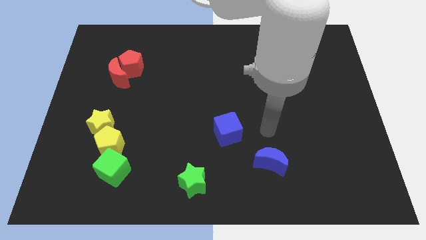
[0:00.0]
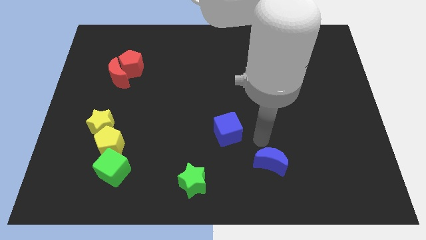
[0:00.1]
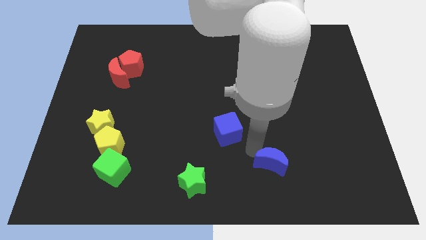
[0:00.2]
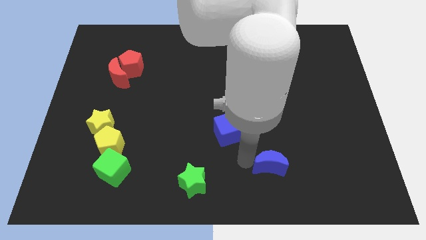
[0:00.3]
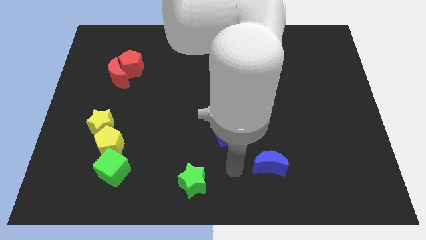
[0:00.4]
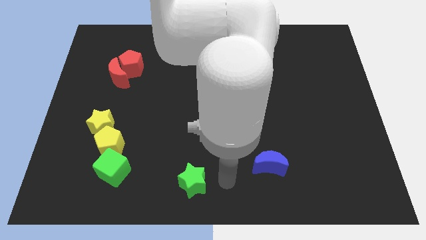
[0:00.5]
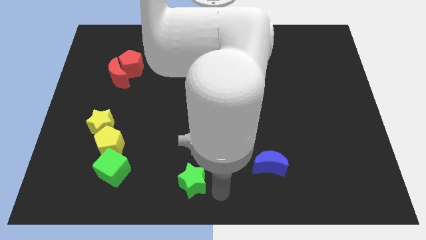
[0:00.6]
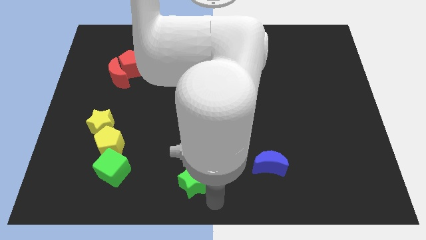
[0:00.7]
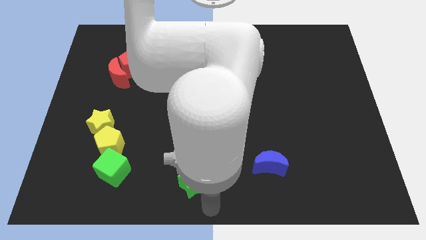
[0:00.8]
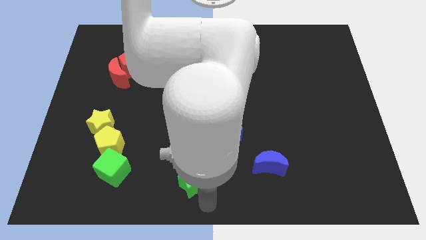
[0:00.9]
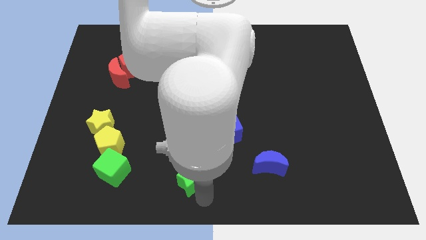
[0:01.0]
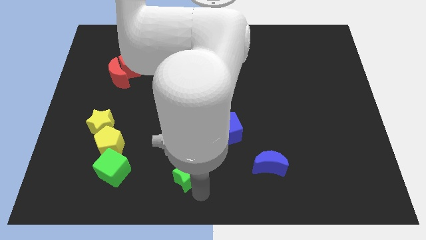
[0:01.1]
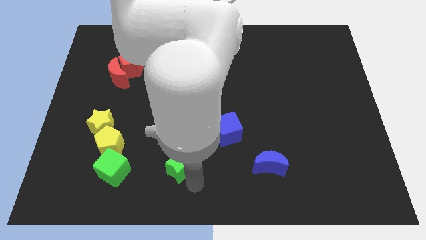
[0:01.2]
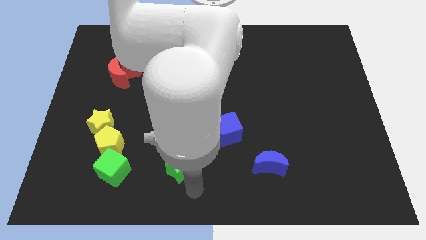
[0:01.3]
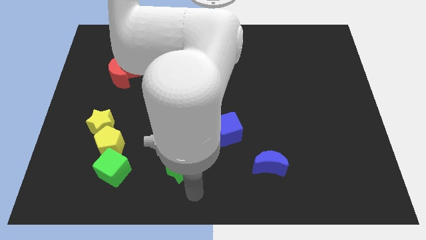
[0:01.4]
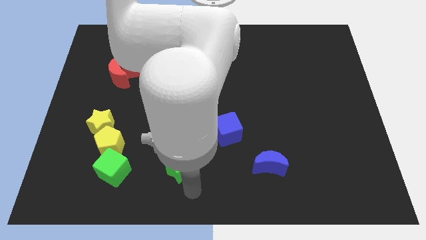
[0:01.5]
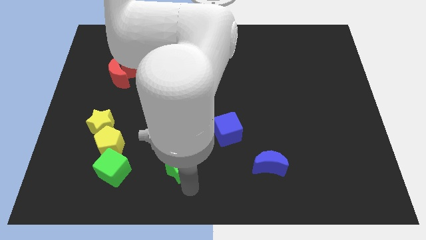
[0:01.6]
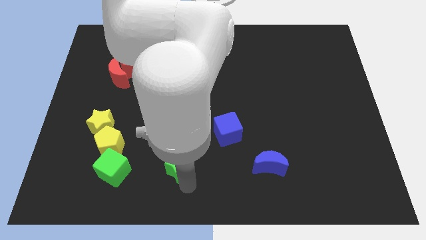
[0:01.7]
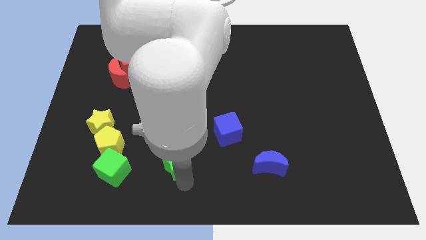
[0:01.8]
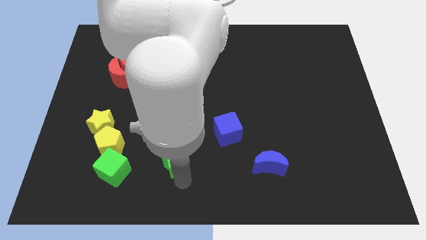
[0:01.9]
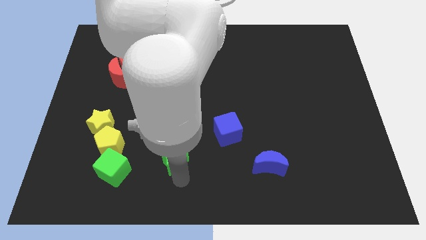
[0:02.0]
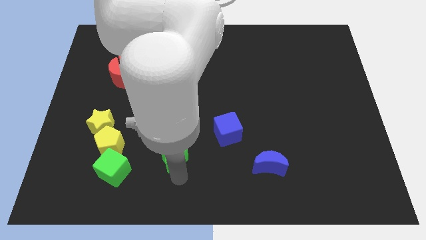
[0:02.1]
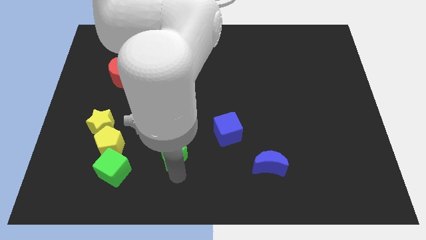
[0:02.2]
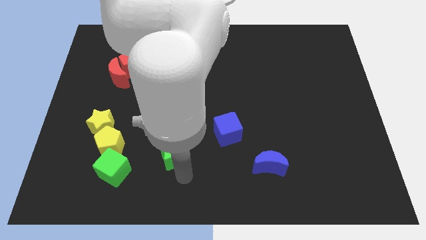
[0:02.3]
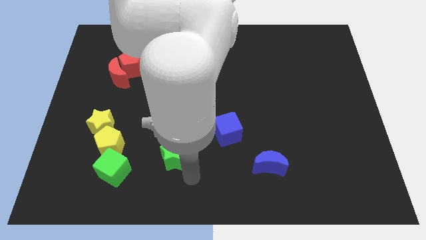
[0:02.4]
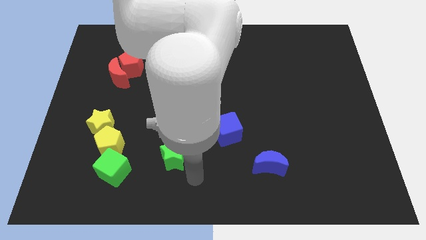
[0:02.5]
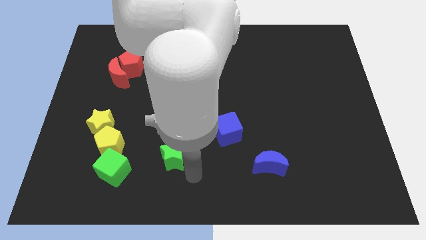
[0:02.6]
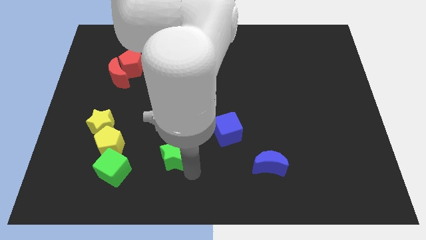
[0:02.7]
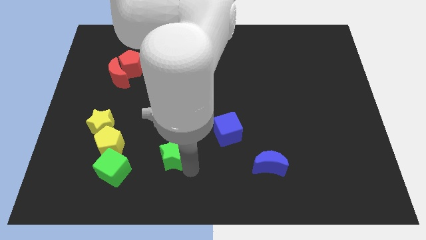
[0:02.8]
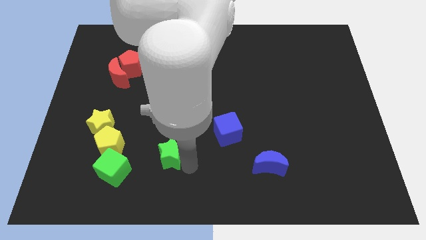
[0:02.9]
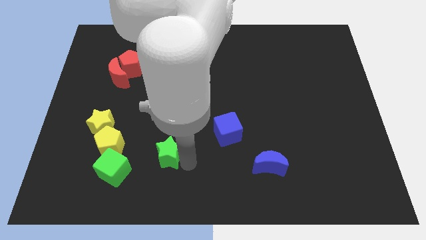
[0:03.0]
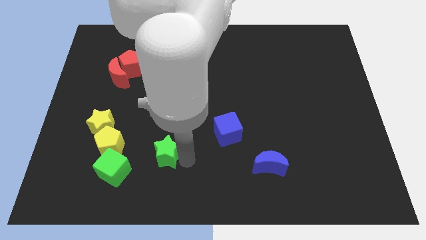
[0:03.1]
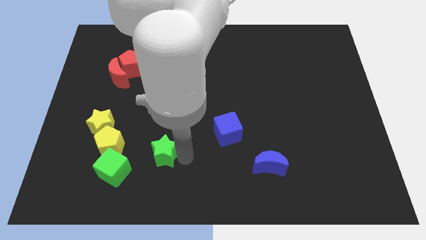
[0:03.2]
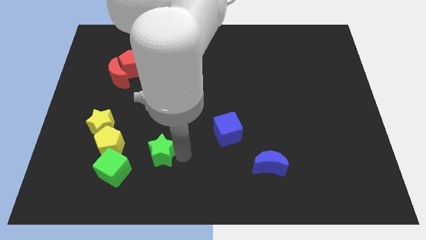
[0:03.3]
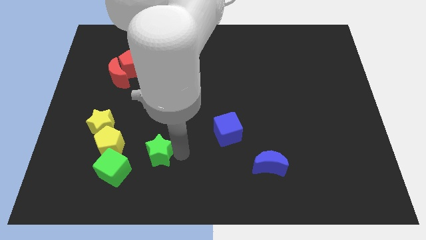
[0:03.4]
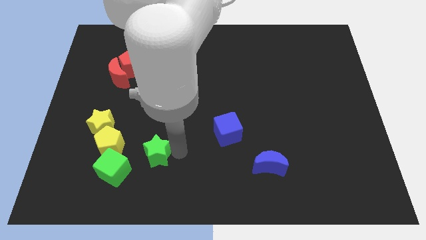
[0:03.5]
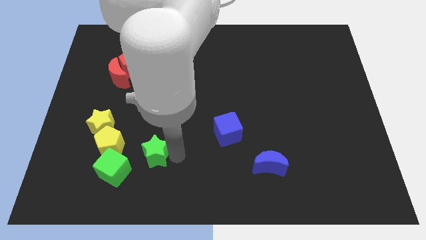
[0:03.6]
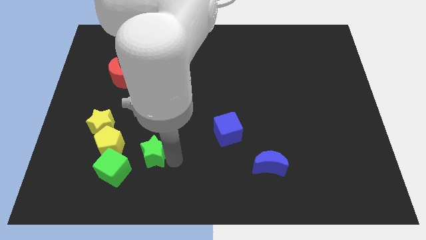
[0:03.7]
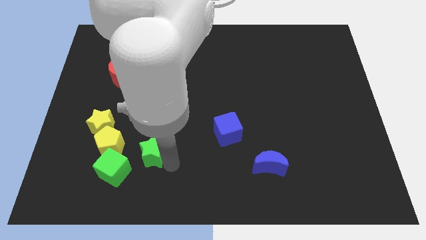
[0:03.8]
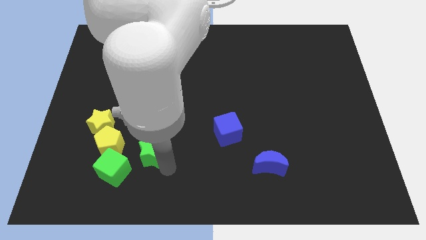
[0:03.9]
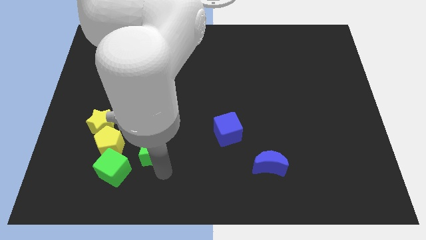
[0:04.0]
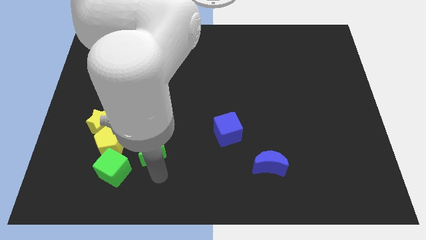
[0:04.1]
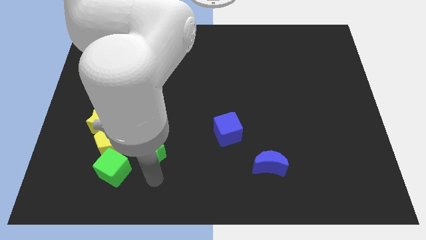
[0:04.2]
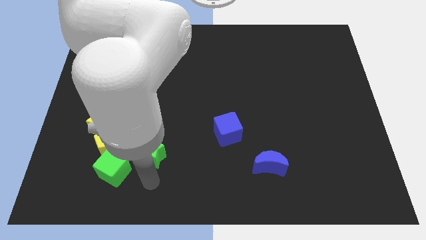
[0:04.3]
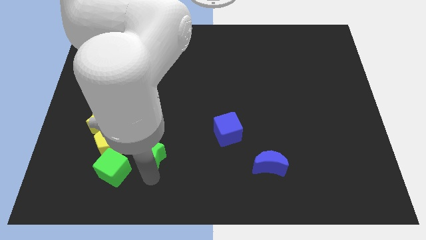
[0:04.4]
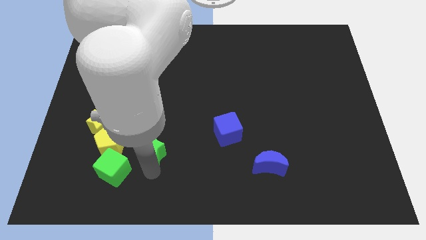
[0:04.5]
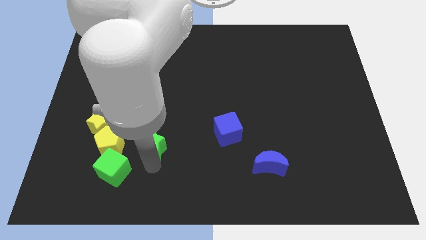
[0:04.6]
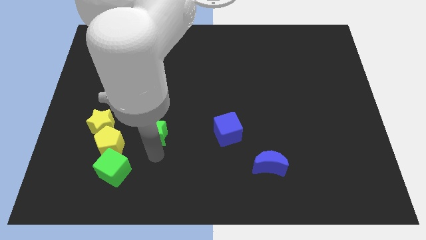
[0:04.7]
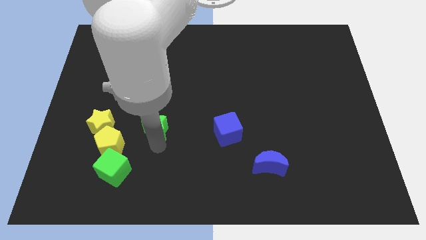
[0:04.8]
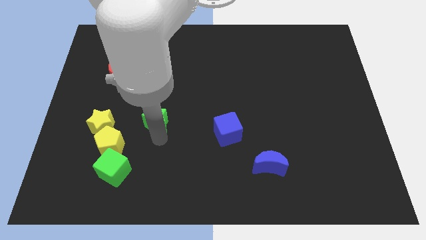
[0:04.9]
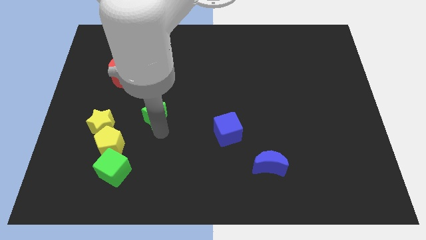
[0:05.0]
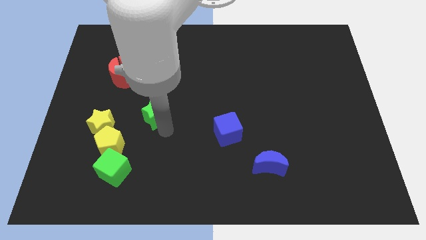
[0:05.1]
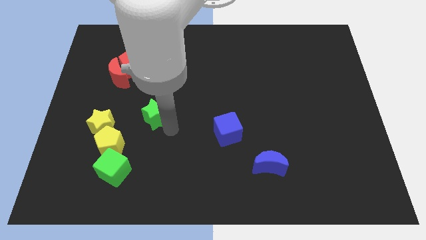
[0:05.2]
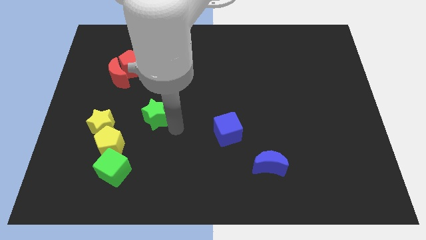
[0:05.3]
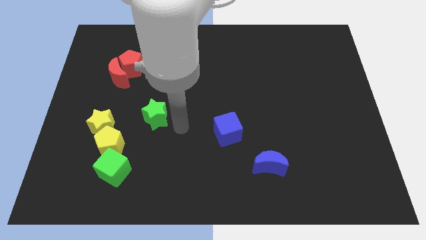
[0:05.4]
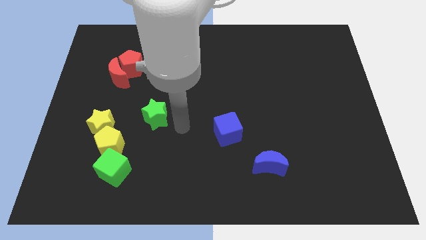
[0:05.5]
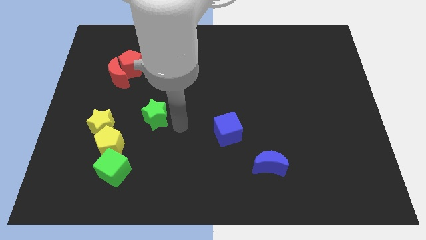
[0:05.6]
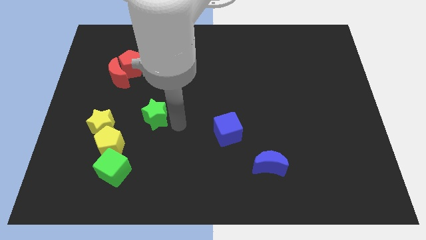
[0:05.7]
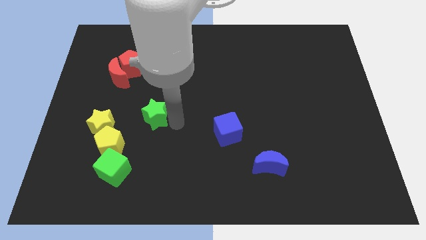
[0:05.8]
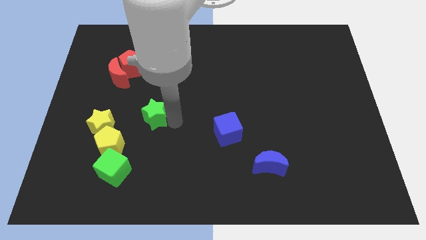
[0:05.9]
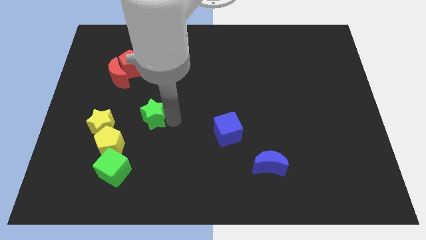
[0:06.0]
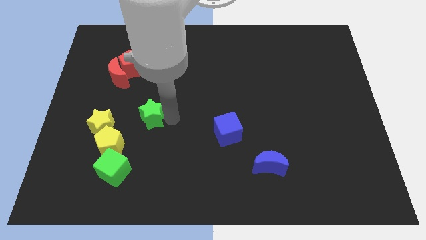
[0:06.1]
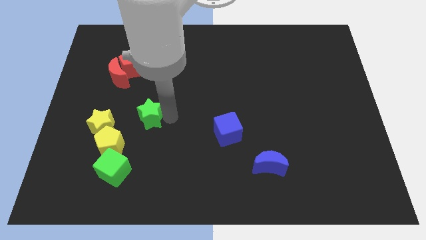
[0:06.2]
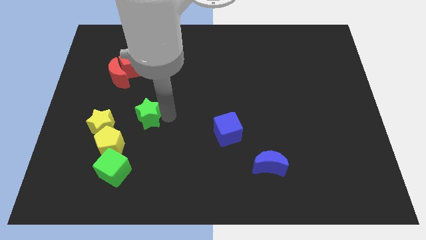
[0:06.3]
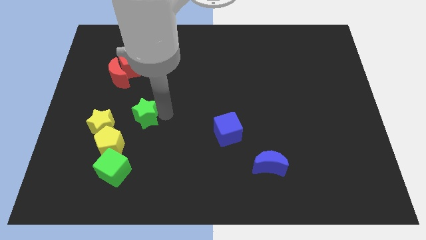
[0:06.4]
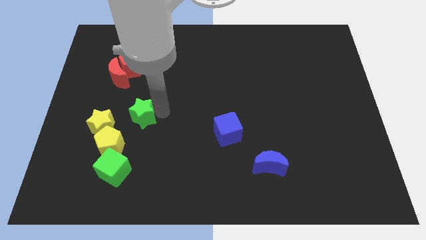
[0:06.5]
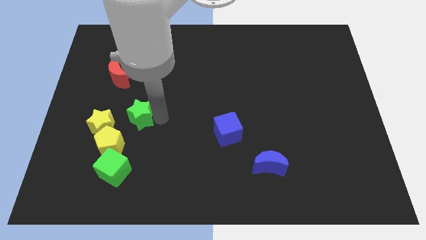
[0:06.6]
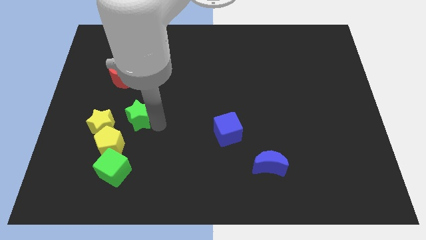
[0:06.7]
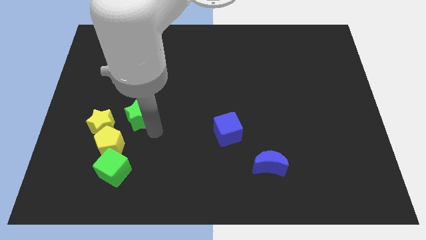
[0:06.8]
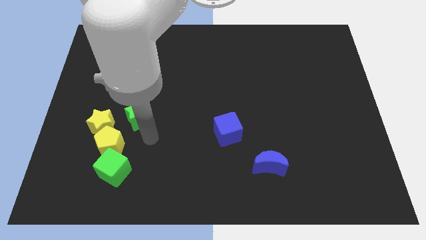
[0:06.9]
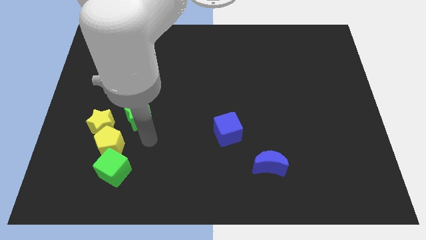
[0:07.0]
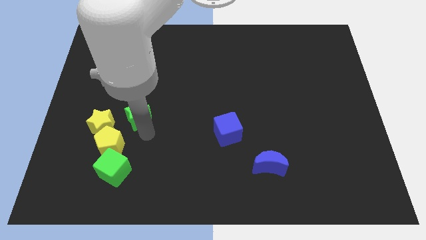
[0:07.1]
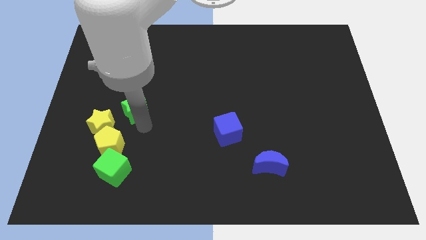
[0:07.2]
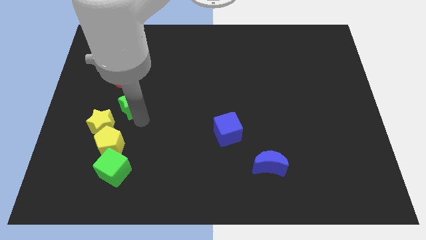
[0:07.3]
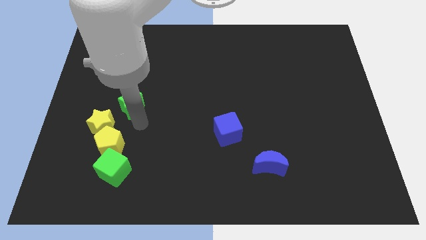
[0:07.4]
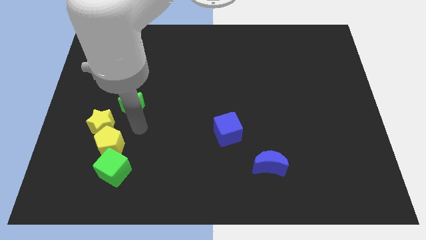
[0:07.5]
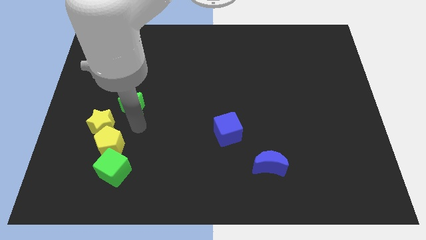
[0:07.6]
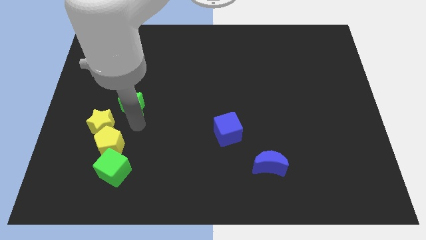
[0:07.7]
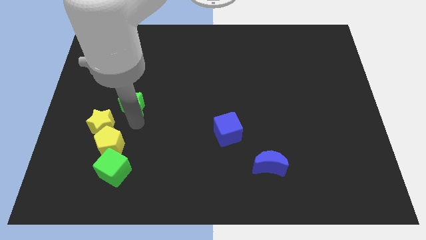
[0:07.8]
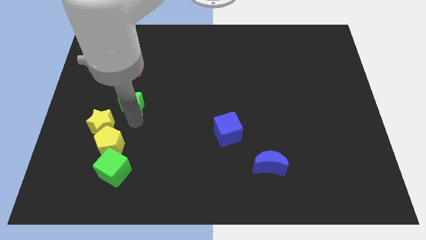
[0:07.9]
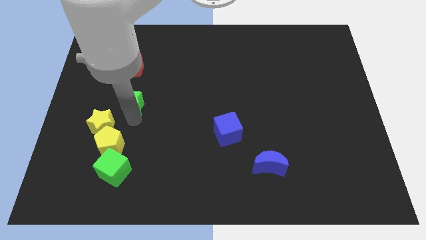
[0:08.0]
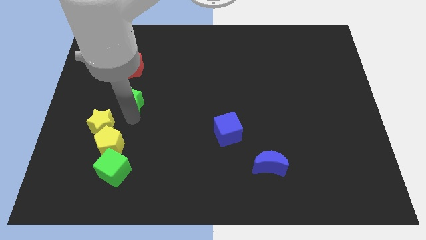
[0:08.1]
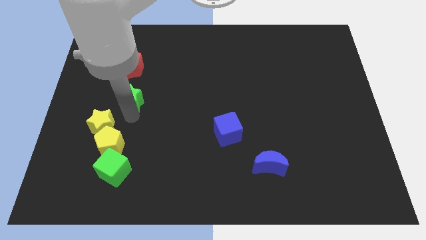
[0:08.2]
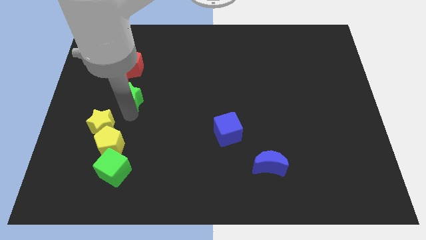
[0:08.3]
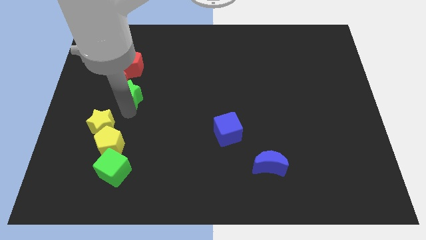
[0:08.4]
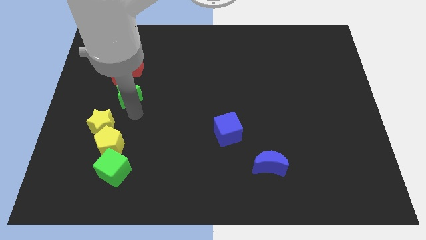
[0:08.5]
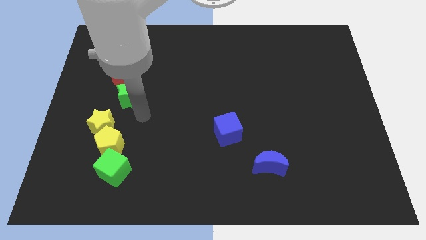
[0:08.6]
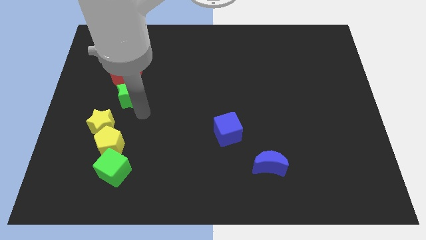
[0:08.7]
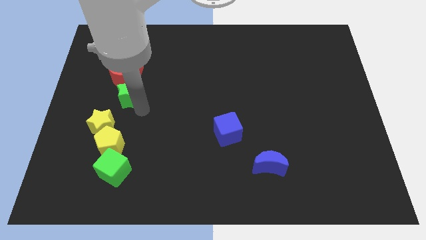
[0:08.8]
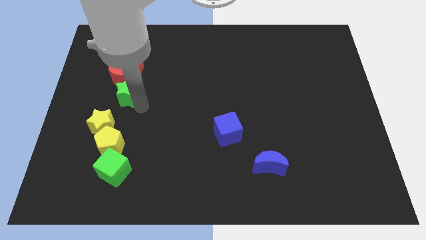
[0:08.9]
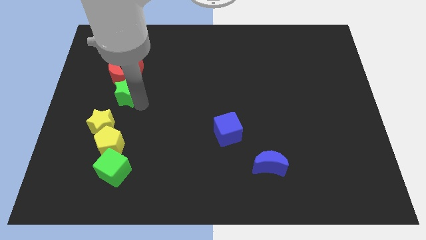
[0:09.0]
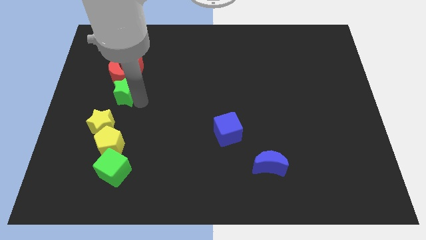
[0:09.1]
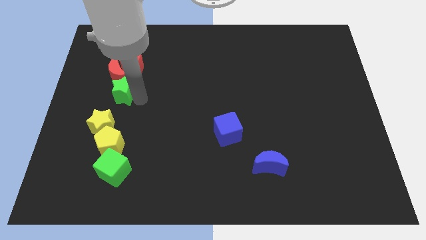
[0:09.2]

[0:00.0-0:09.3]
slide the green star close to the red moon
